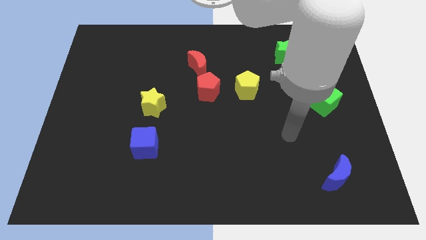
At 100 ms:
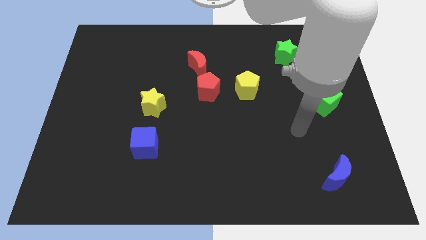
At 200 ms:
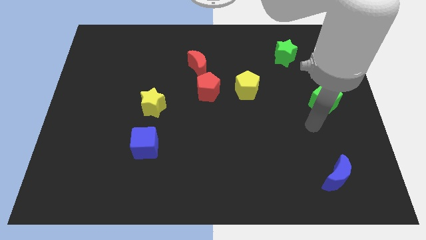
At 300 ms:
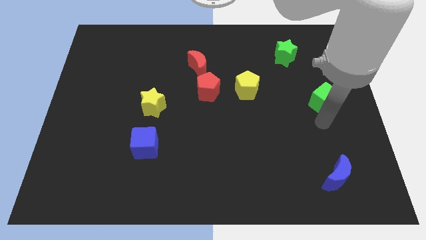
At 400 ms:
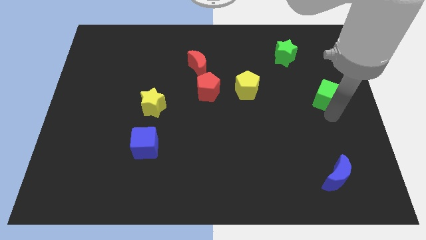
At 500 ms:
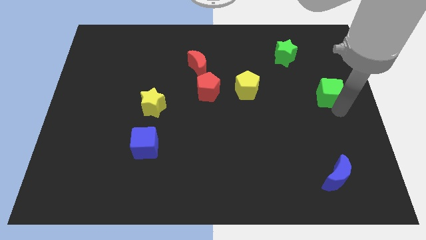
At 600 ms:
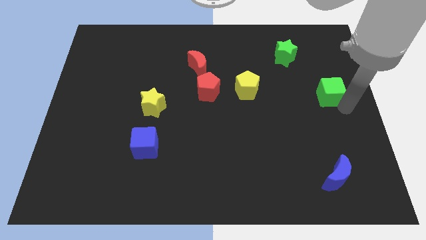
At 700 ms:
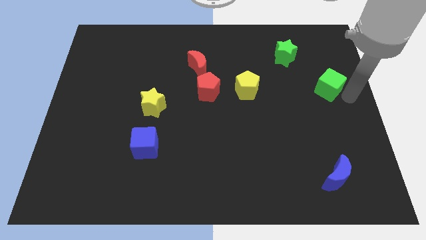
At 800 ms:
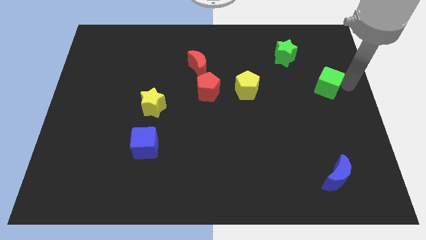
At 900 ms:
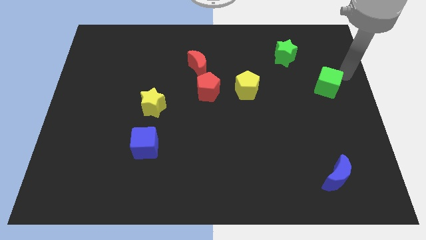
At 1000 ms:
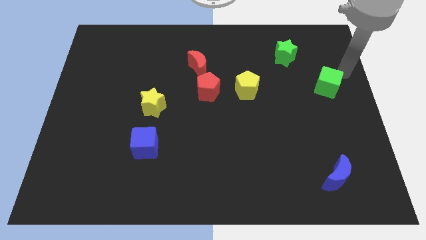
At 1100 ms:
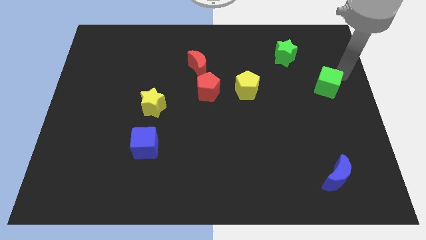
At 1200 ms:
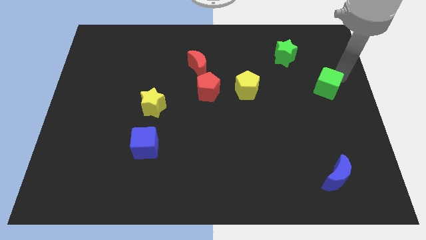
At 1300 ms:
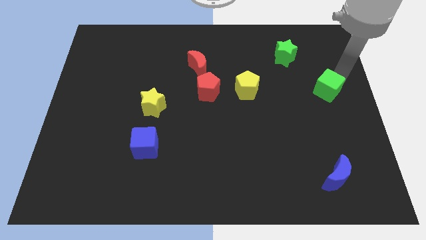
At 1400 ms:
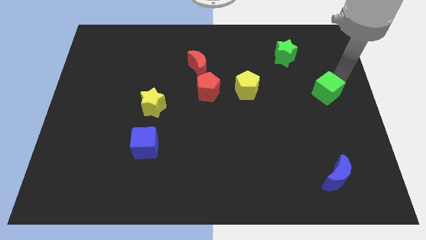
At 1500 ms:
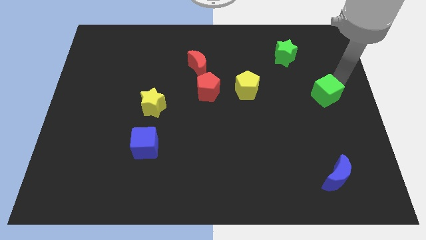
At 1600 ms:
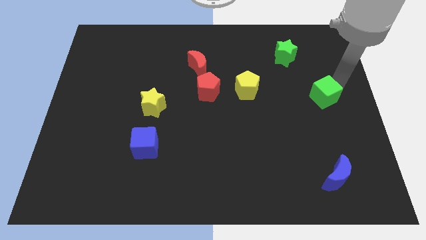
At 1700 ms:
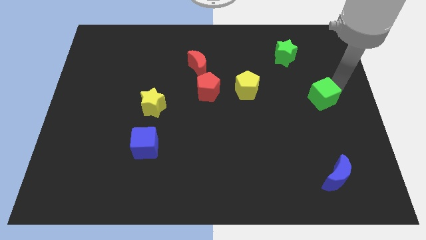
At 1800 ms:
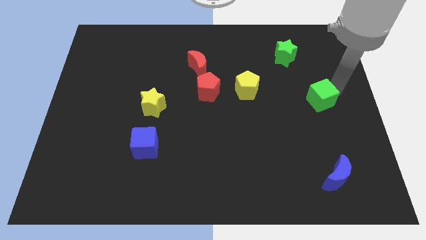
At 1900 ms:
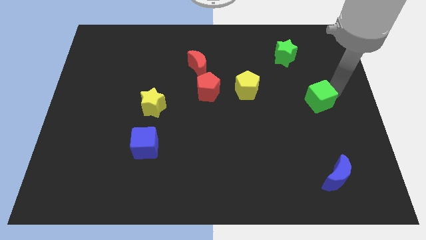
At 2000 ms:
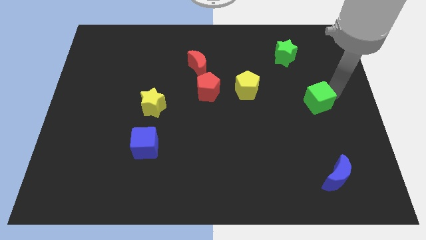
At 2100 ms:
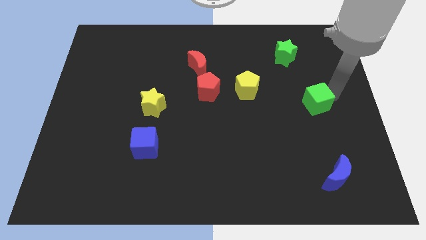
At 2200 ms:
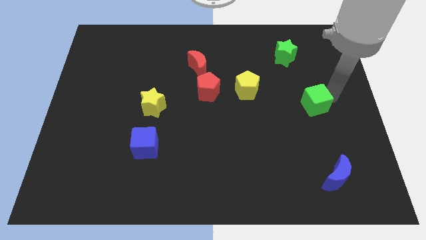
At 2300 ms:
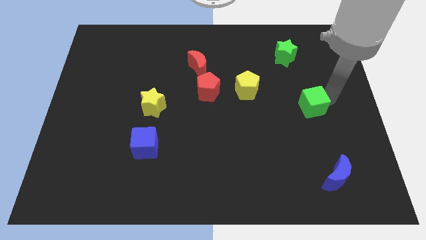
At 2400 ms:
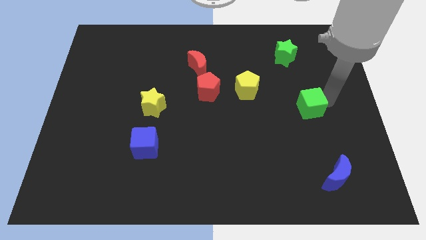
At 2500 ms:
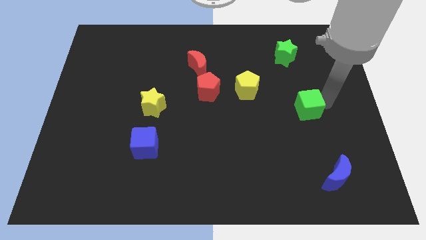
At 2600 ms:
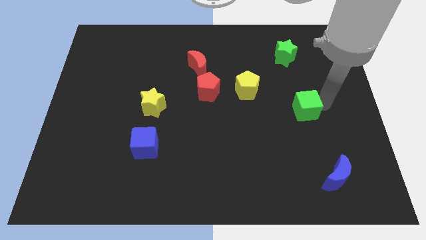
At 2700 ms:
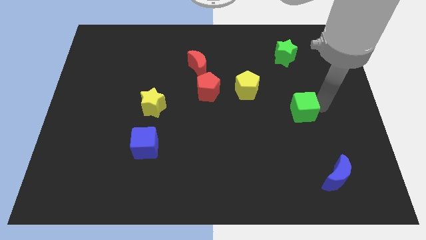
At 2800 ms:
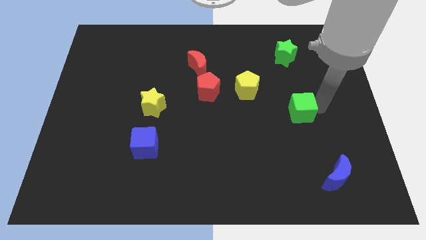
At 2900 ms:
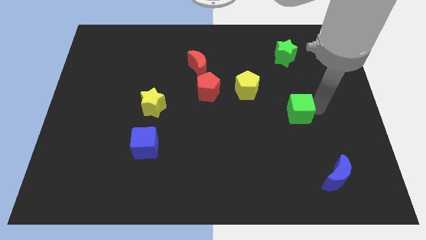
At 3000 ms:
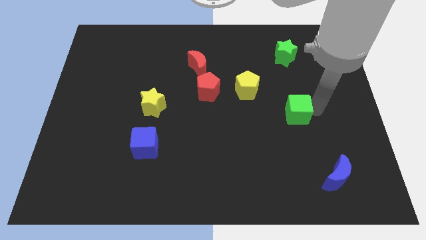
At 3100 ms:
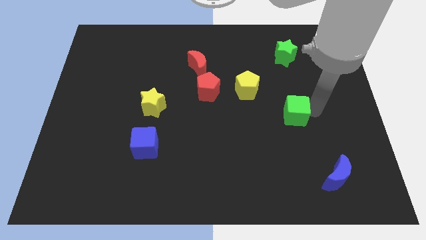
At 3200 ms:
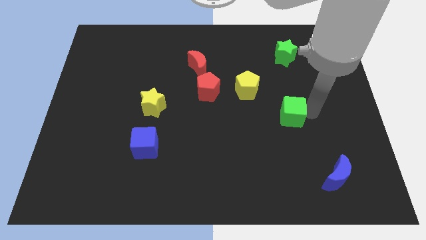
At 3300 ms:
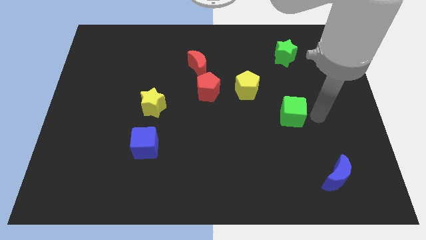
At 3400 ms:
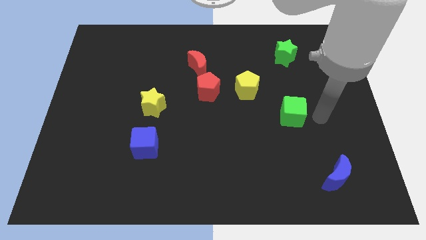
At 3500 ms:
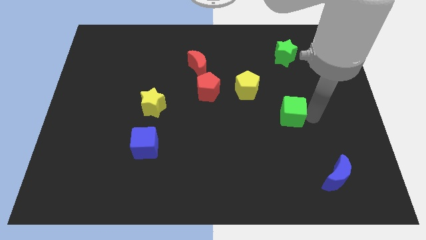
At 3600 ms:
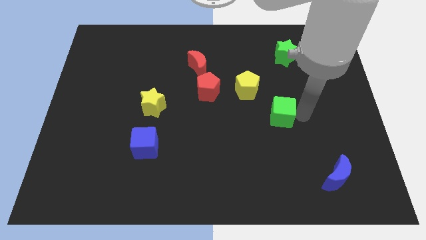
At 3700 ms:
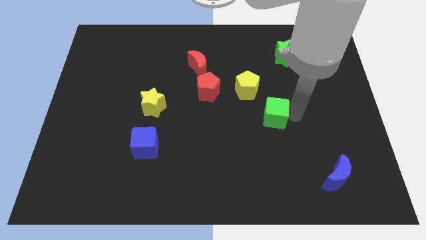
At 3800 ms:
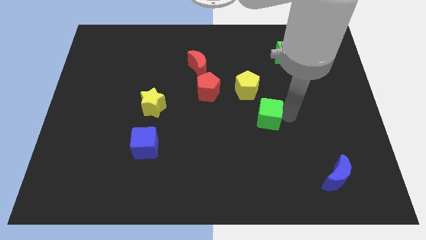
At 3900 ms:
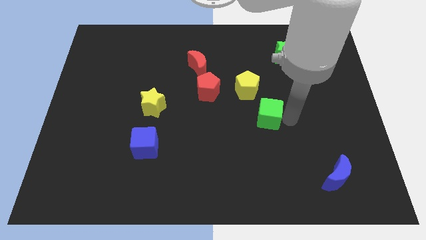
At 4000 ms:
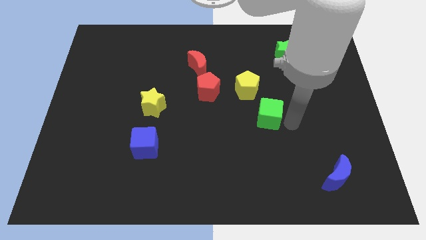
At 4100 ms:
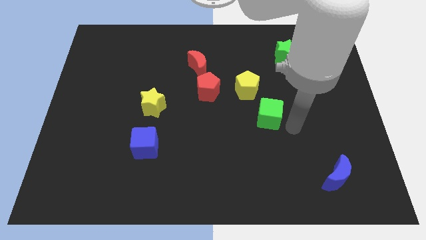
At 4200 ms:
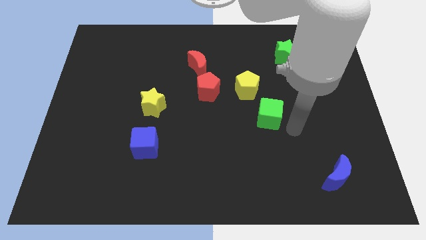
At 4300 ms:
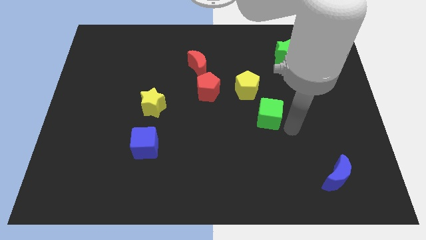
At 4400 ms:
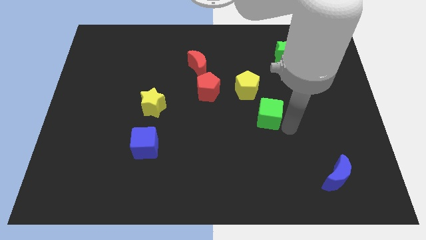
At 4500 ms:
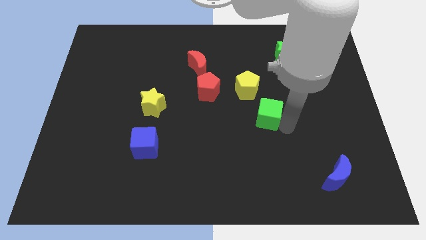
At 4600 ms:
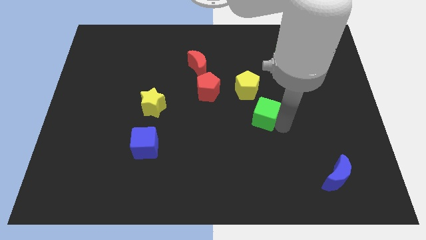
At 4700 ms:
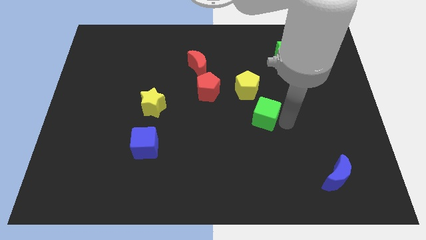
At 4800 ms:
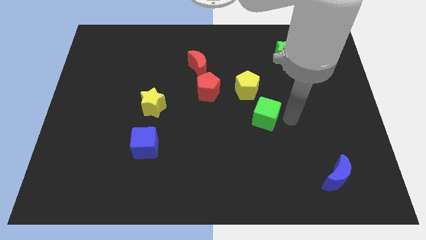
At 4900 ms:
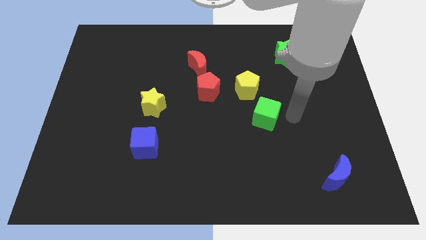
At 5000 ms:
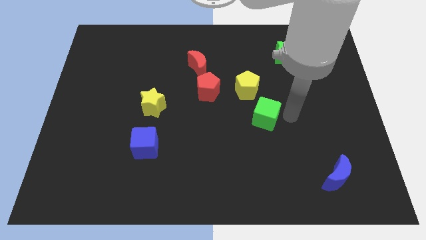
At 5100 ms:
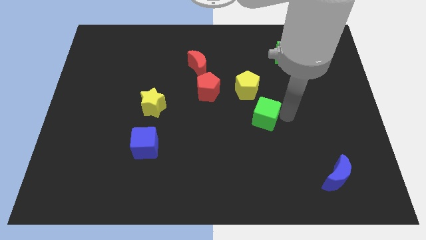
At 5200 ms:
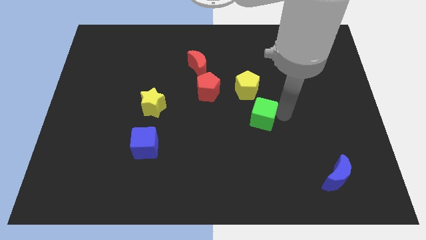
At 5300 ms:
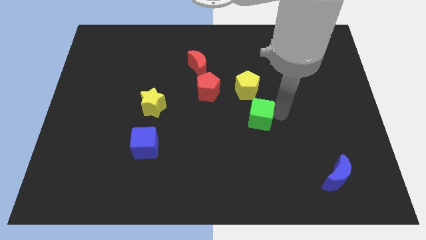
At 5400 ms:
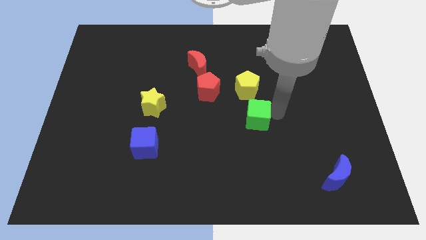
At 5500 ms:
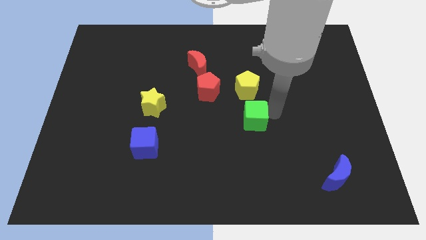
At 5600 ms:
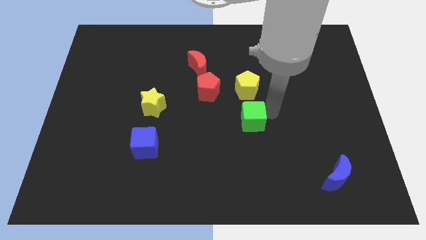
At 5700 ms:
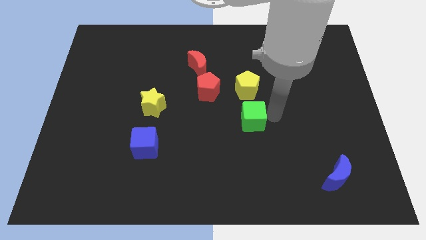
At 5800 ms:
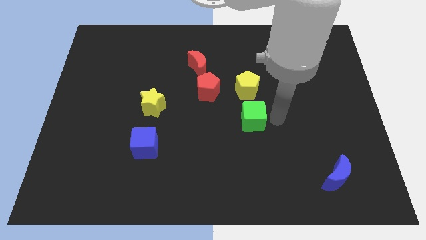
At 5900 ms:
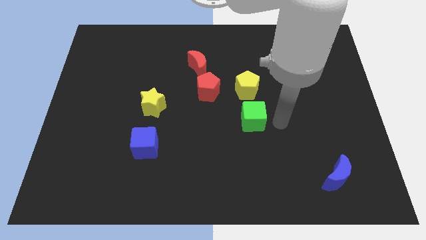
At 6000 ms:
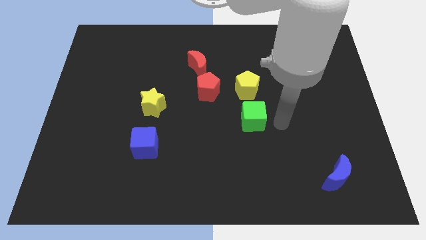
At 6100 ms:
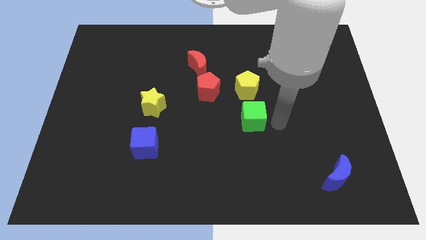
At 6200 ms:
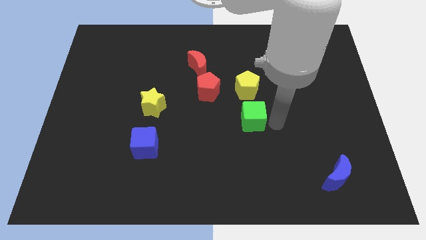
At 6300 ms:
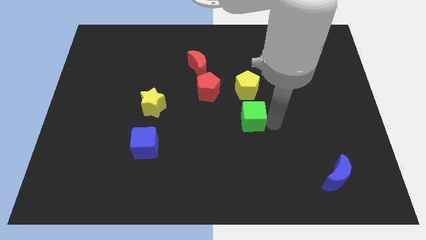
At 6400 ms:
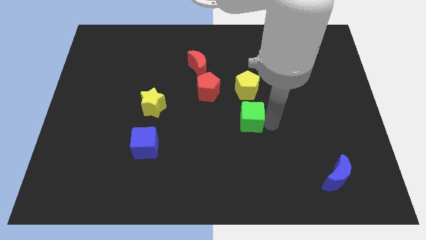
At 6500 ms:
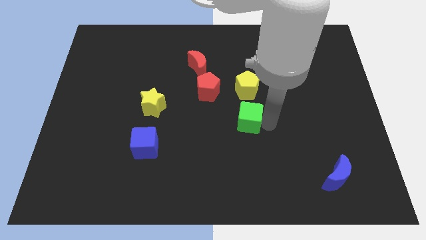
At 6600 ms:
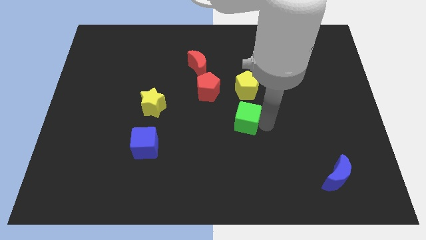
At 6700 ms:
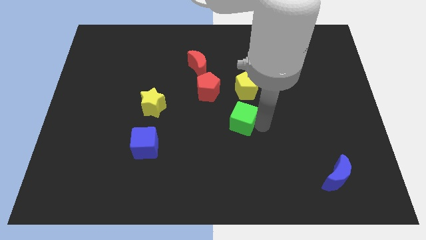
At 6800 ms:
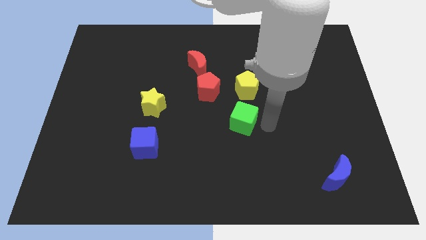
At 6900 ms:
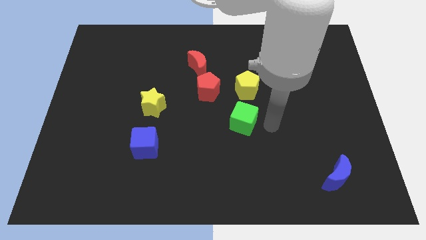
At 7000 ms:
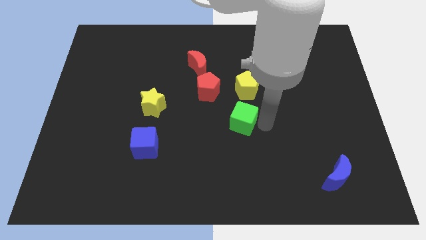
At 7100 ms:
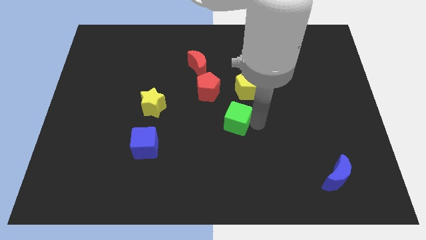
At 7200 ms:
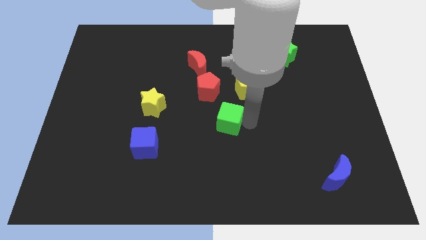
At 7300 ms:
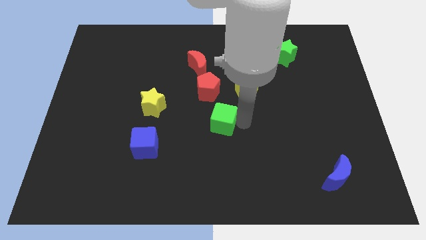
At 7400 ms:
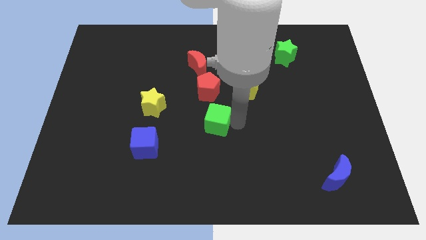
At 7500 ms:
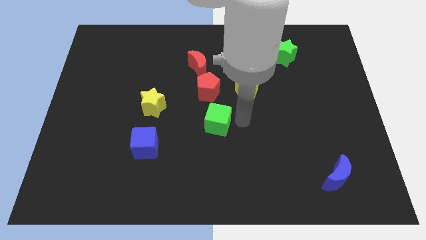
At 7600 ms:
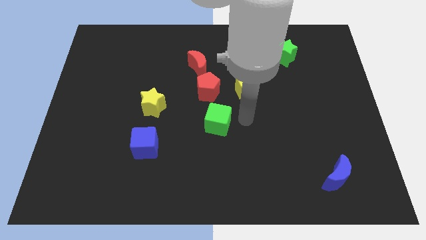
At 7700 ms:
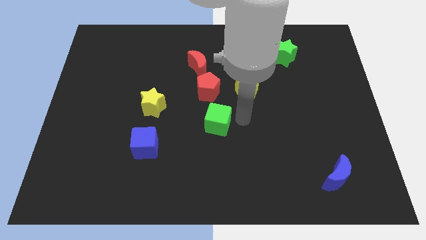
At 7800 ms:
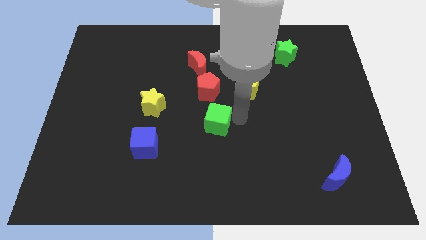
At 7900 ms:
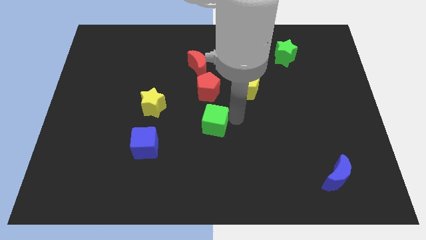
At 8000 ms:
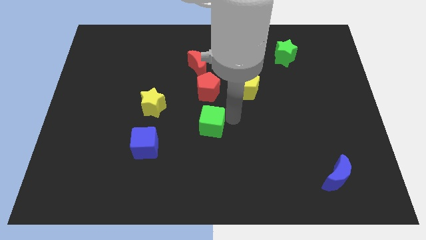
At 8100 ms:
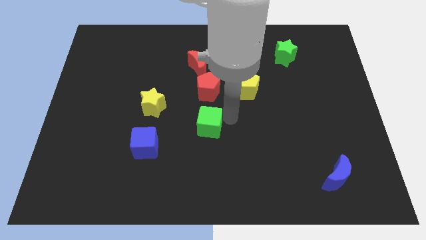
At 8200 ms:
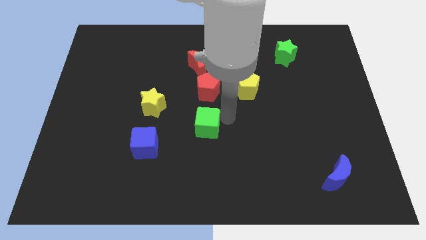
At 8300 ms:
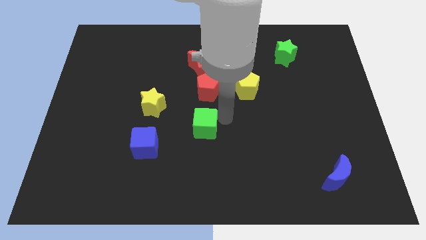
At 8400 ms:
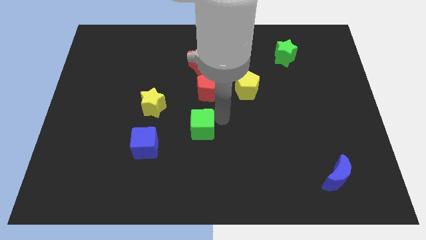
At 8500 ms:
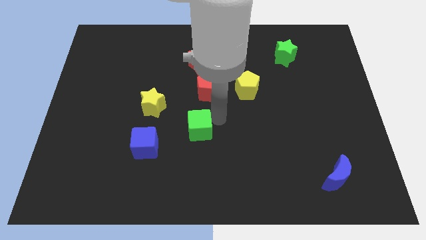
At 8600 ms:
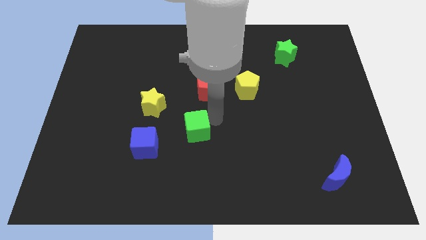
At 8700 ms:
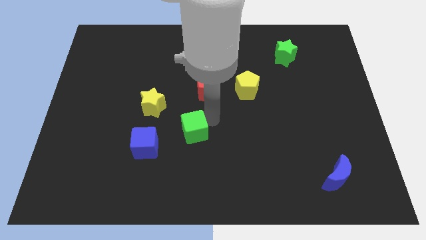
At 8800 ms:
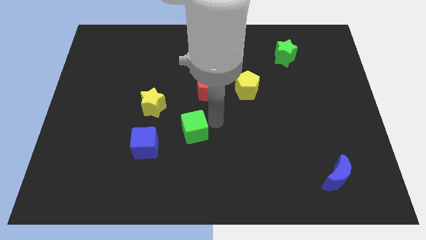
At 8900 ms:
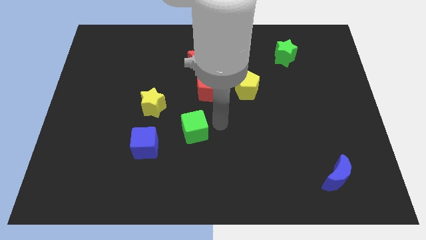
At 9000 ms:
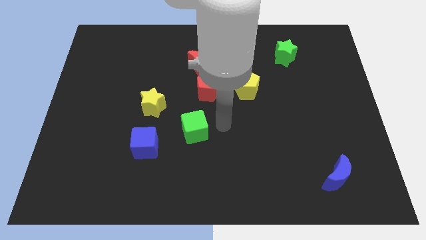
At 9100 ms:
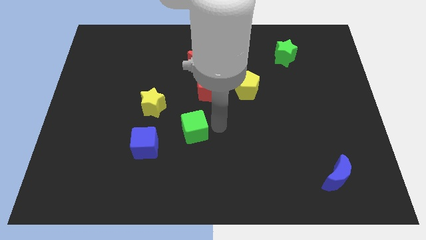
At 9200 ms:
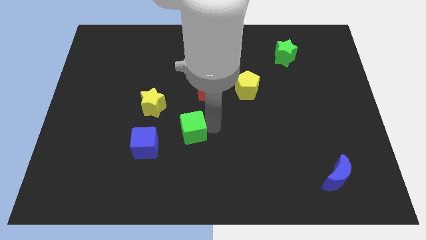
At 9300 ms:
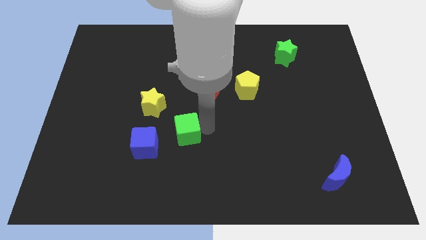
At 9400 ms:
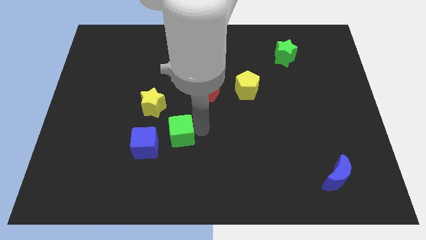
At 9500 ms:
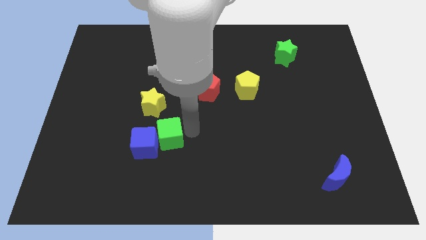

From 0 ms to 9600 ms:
push the green cube to the blue cube
